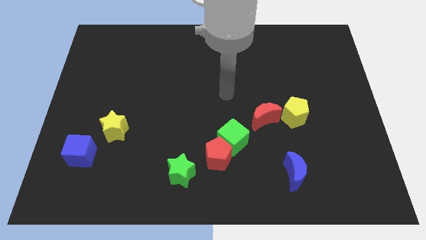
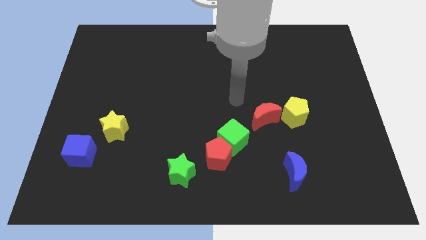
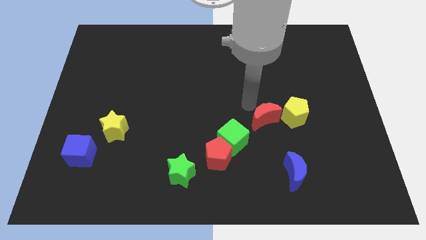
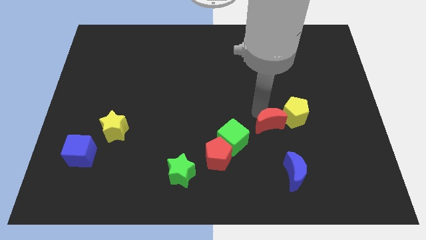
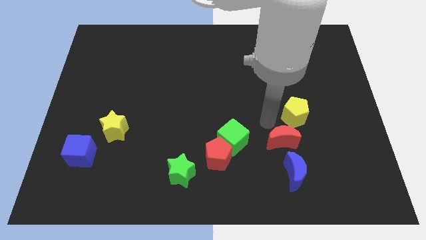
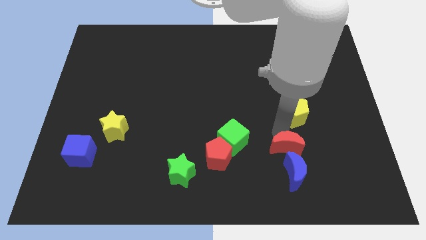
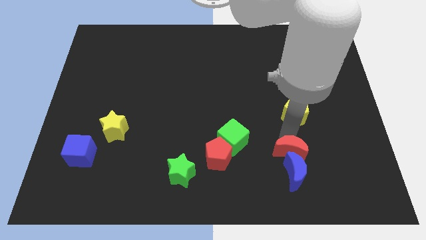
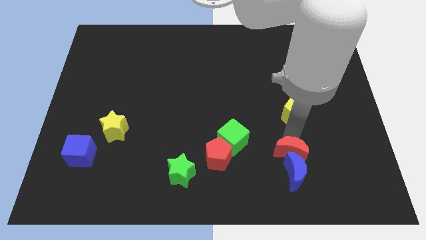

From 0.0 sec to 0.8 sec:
separate the yellow pentagon from the red moon

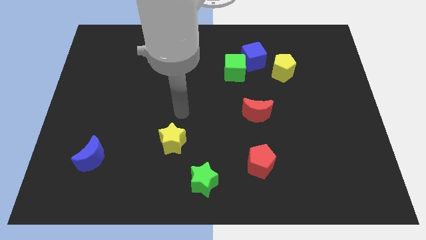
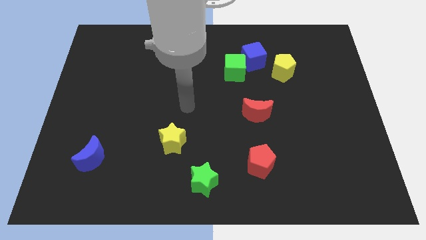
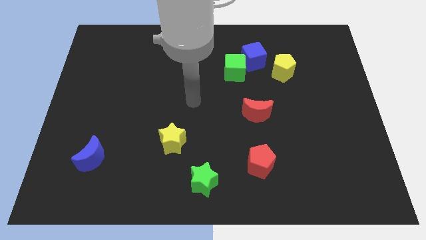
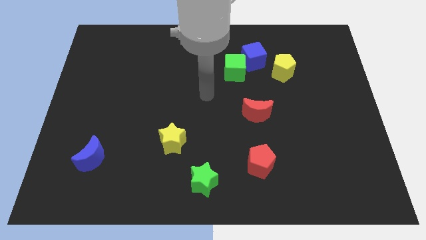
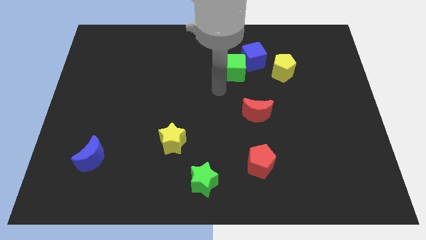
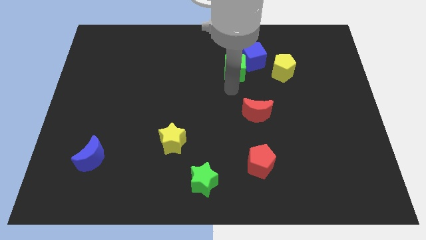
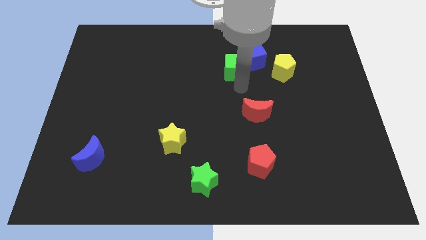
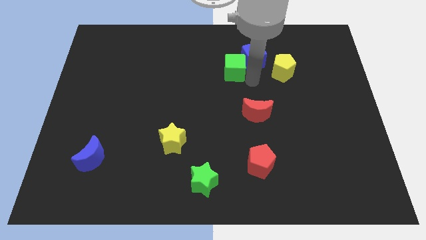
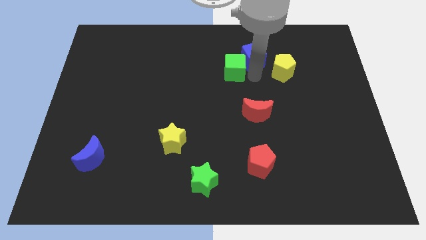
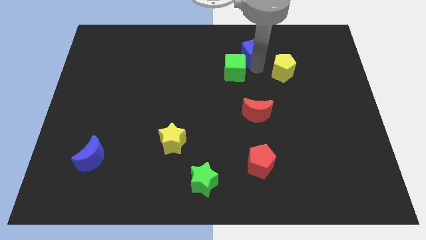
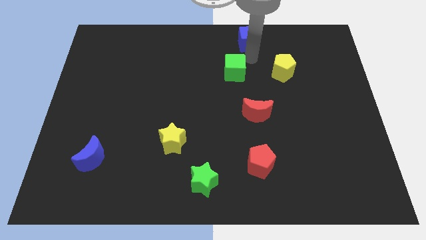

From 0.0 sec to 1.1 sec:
separate the green cube from the blue cube

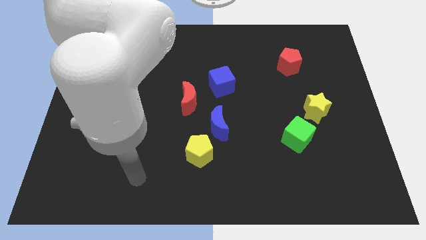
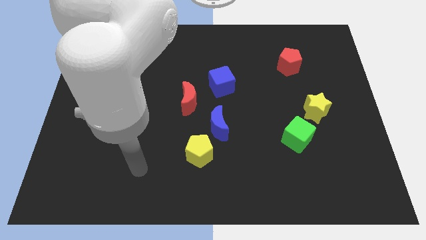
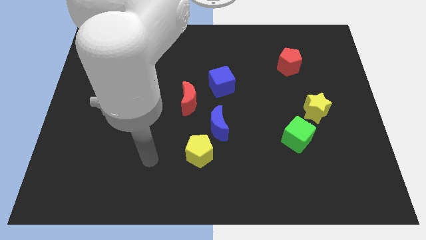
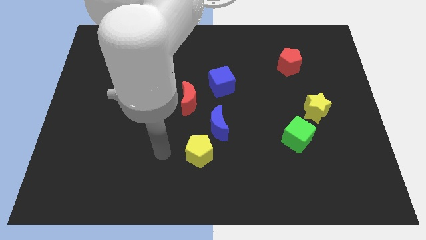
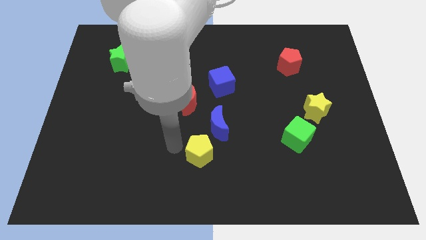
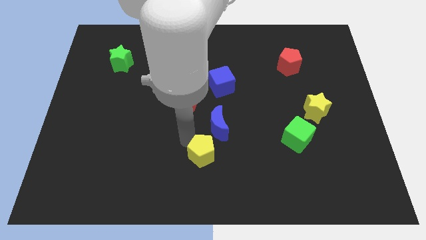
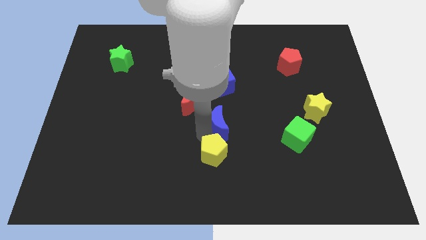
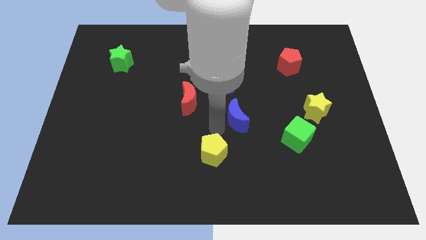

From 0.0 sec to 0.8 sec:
move the yellow pentagon away from the blue moon

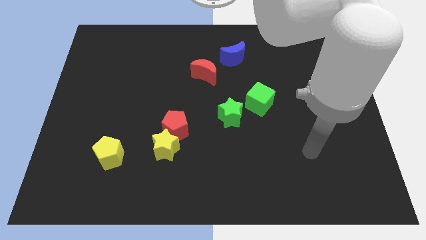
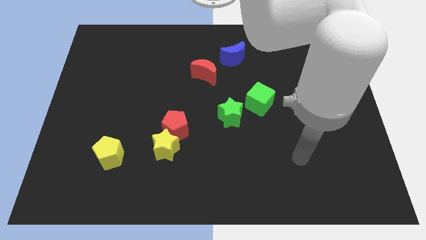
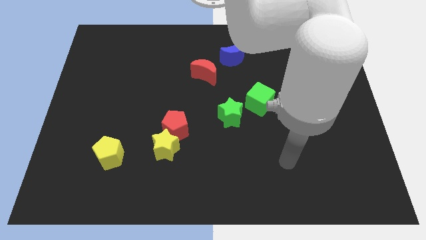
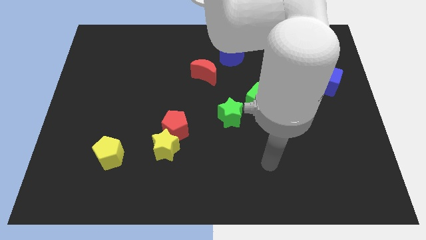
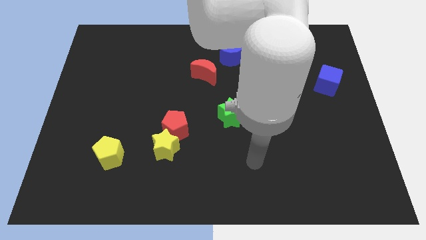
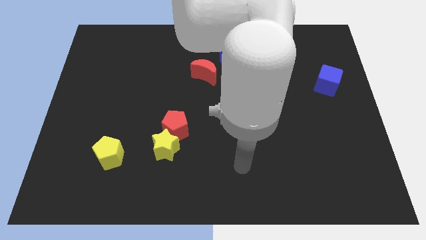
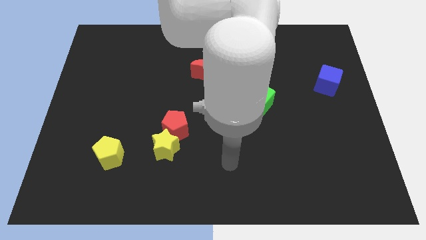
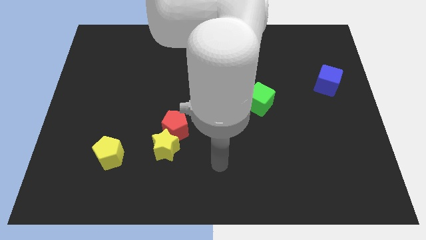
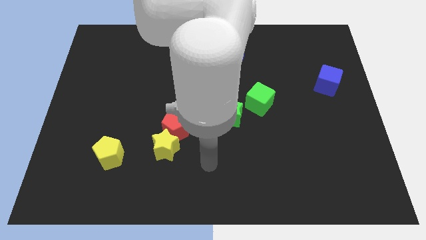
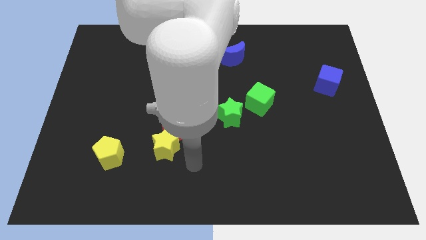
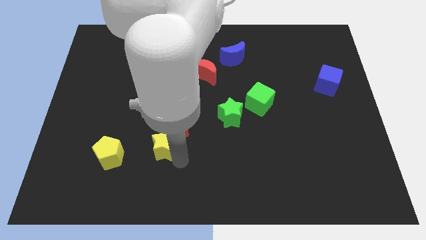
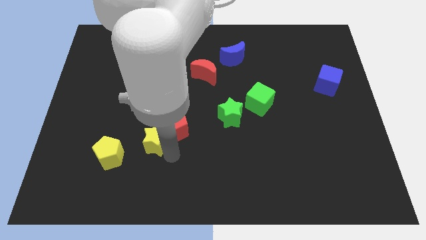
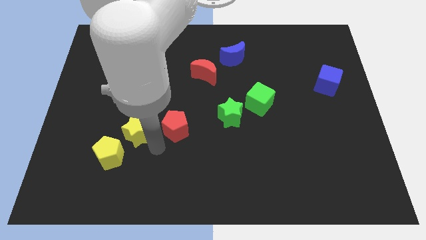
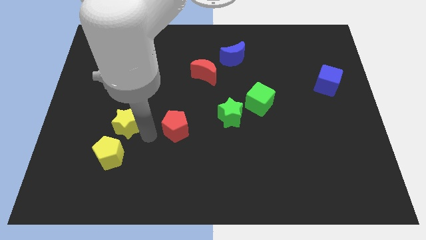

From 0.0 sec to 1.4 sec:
pull the red pentagon apart from the yellow star

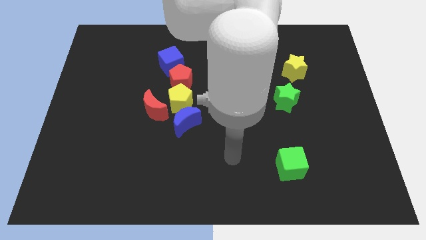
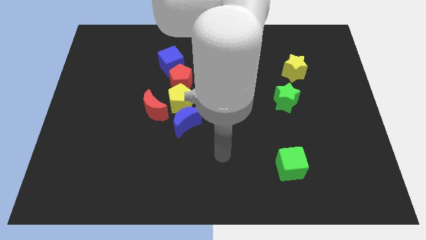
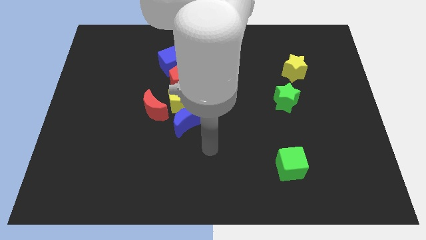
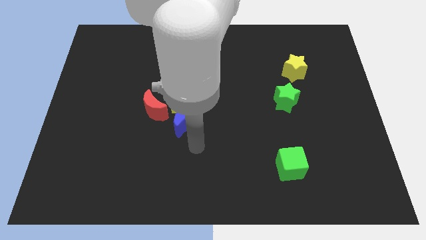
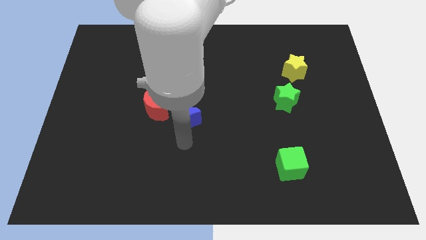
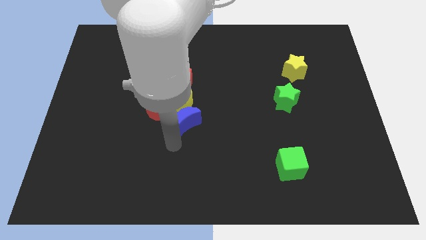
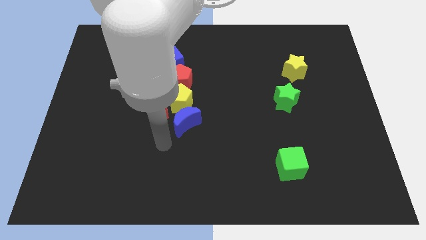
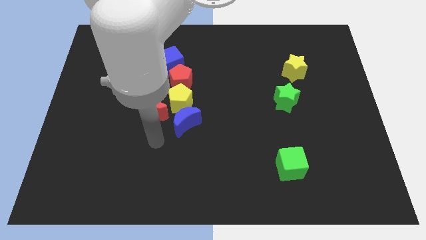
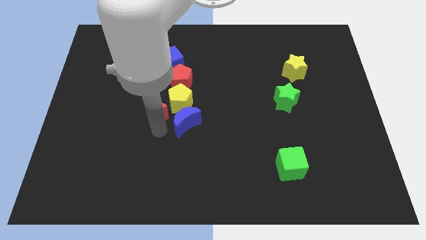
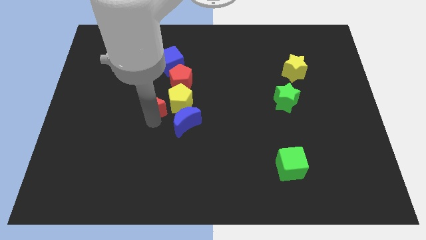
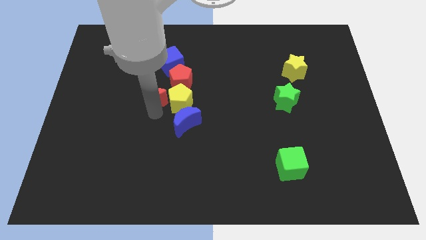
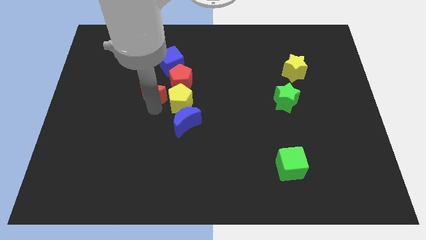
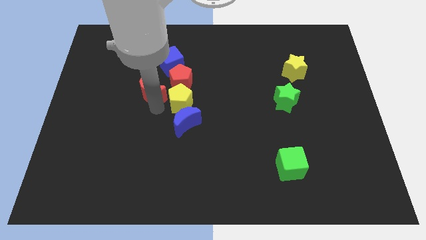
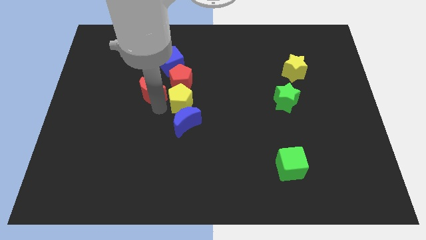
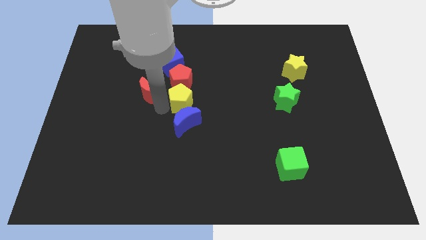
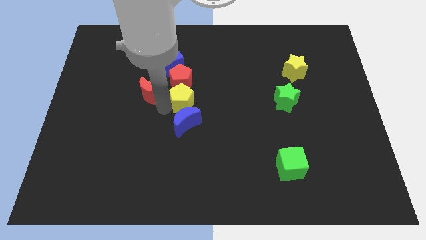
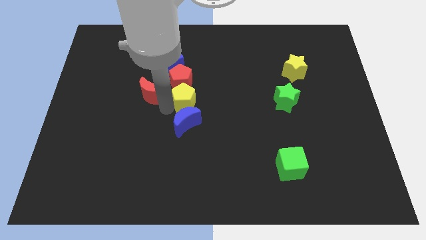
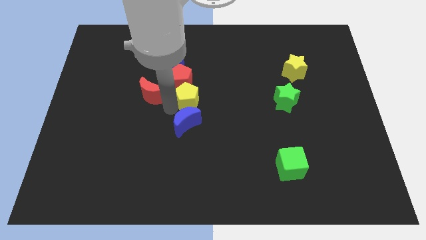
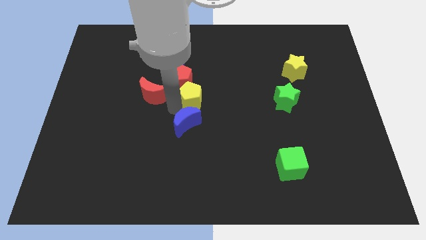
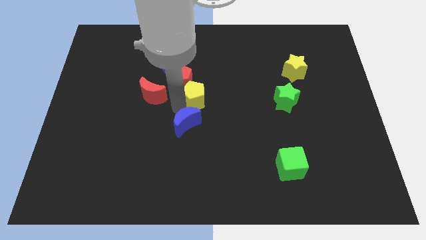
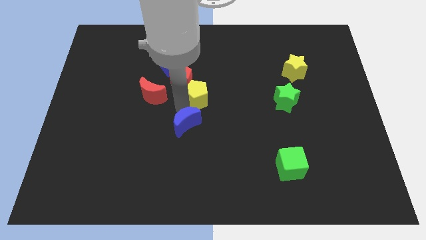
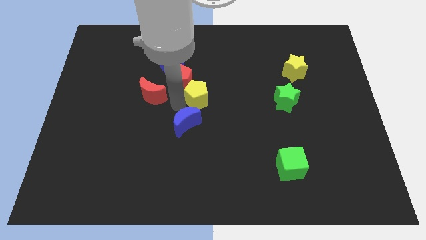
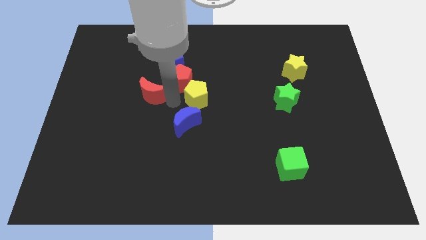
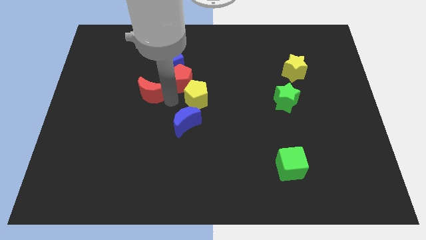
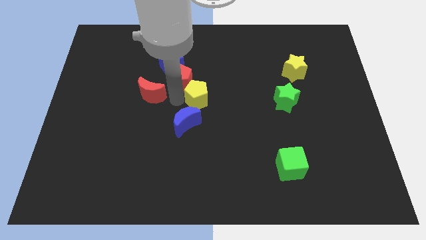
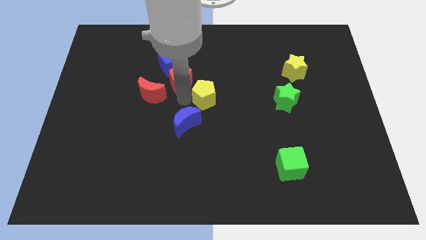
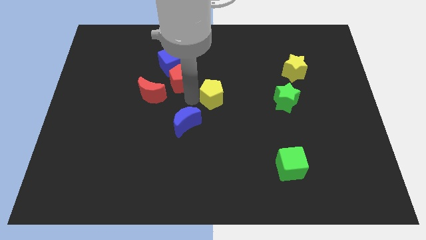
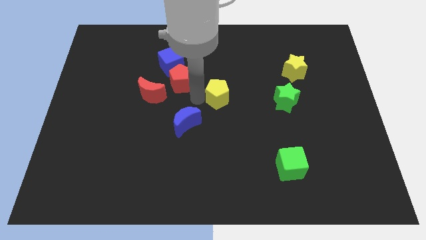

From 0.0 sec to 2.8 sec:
move the yellow pentagon away from the group of blocks

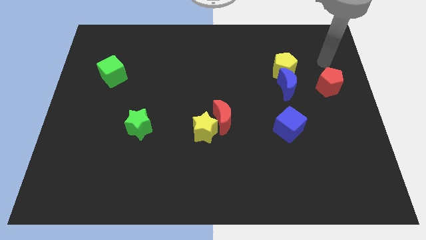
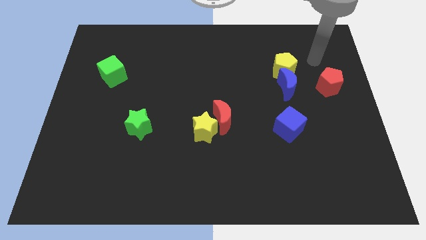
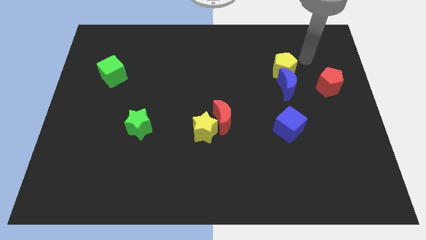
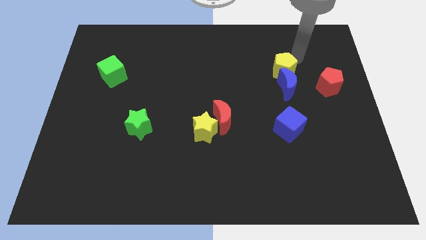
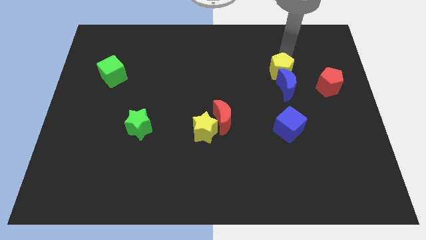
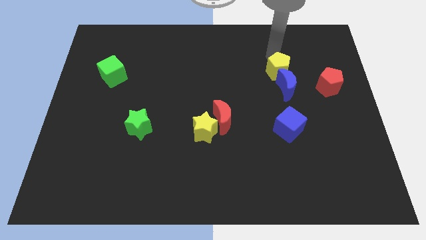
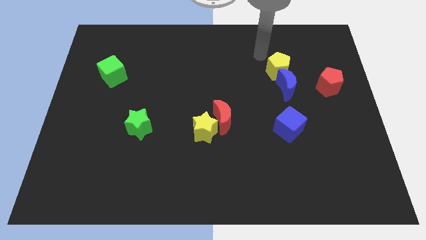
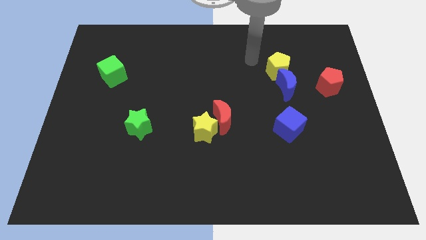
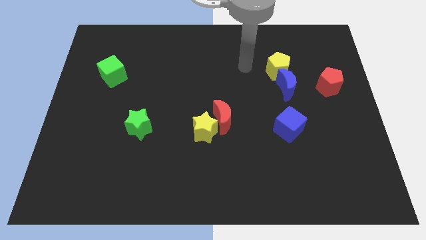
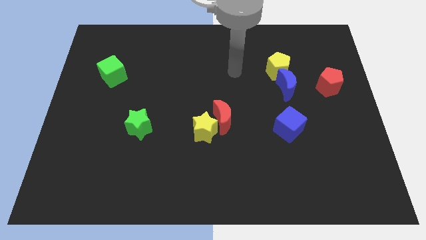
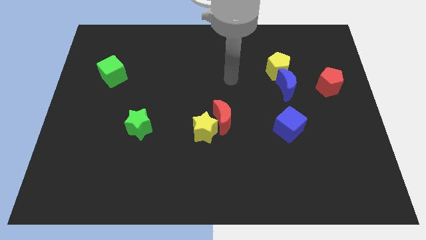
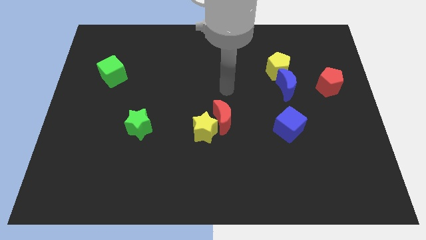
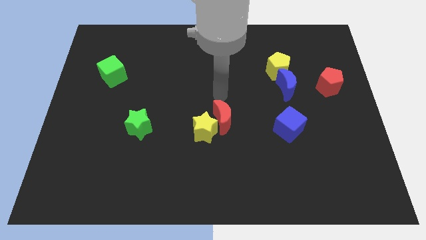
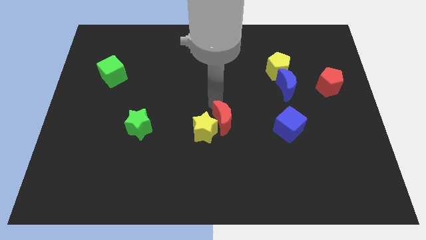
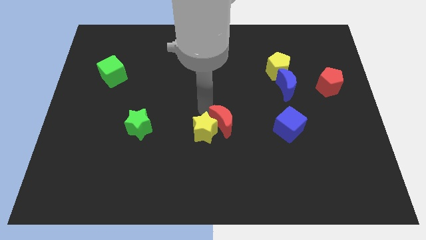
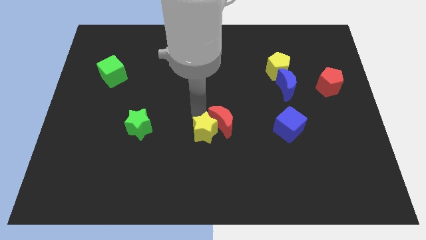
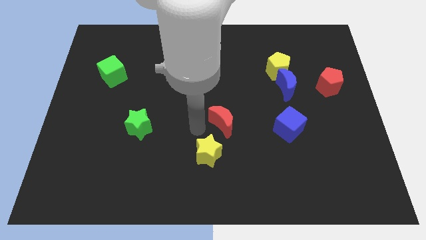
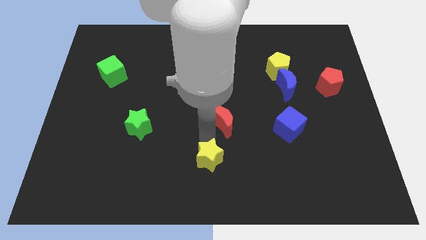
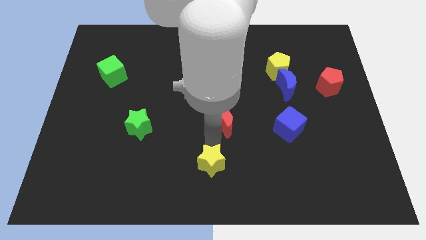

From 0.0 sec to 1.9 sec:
pull the red moon apart from the yellow star

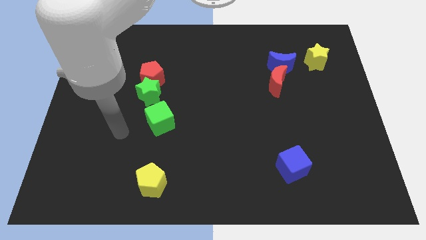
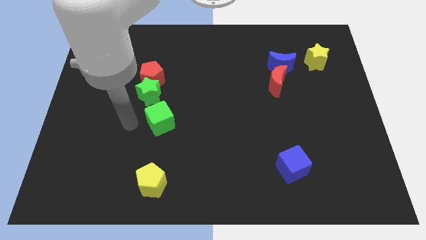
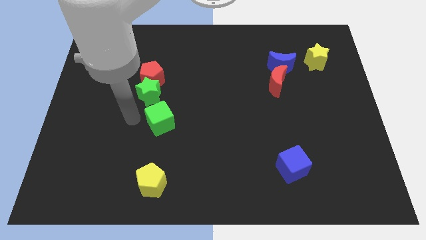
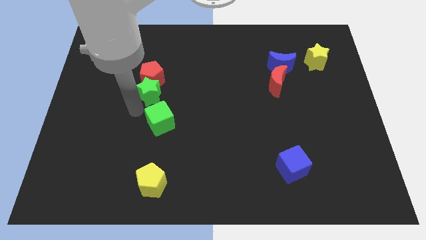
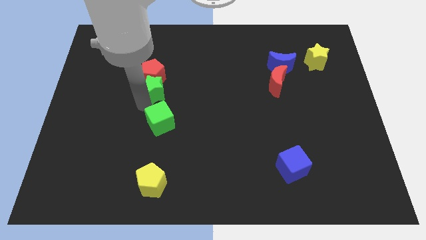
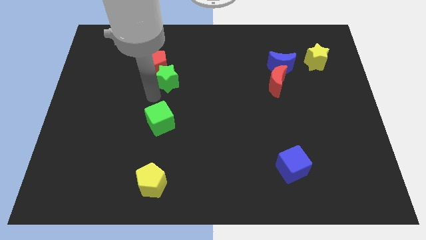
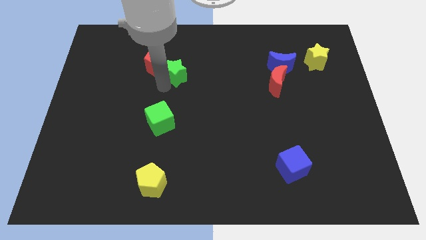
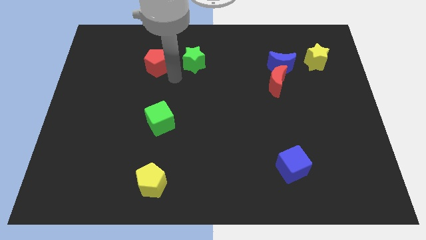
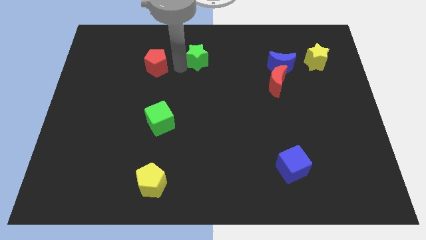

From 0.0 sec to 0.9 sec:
move the red pentagon away from the green star
